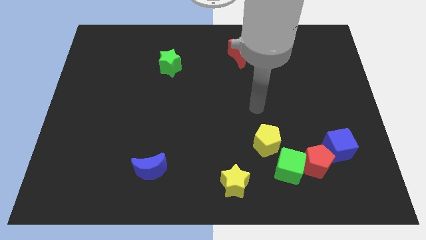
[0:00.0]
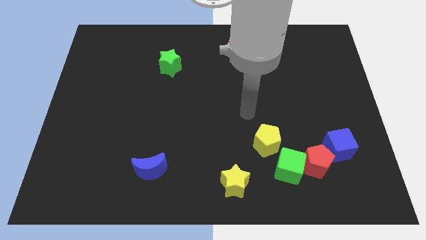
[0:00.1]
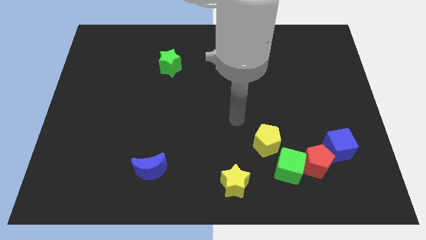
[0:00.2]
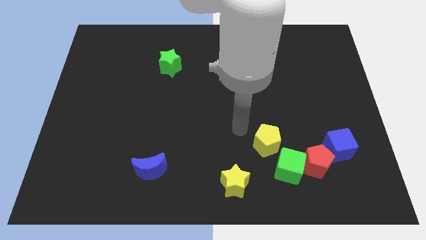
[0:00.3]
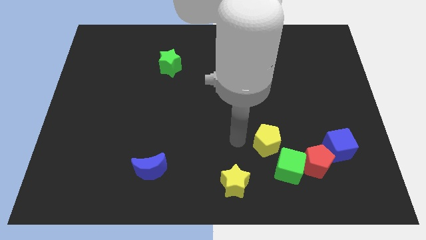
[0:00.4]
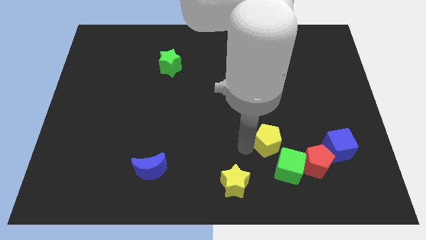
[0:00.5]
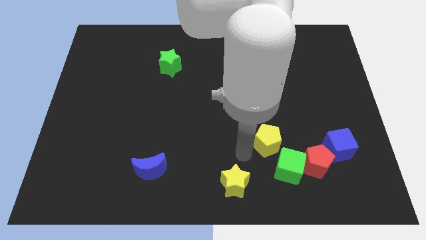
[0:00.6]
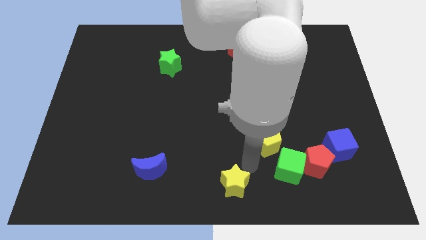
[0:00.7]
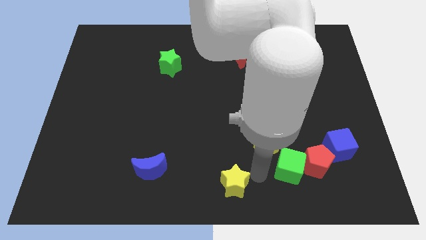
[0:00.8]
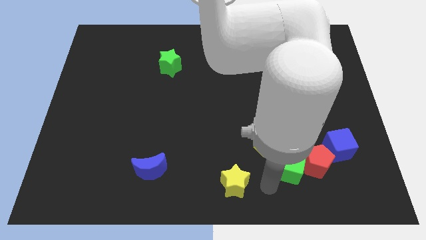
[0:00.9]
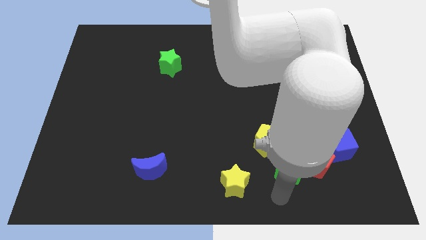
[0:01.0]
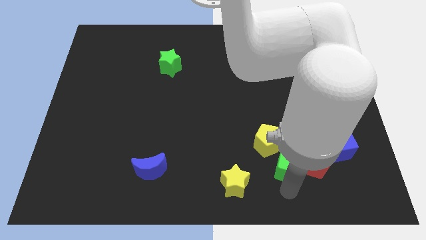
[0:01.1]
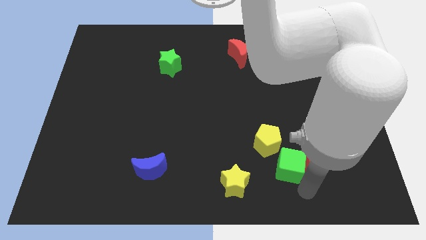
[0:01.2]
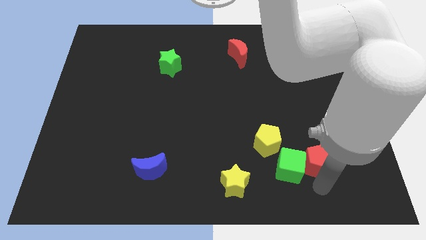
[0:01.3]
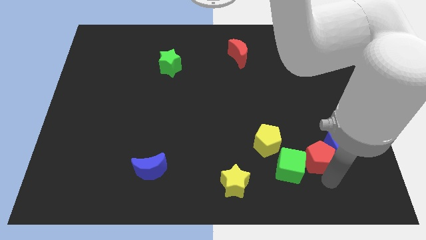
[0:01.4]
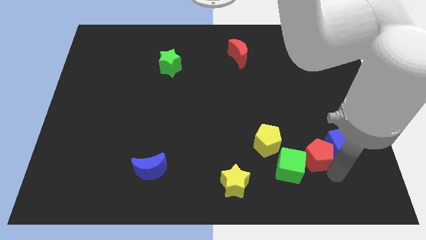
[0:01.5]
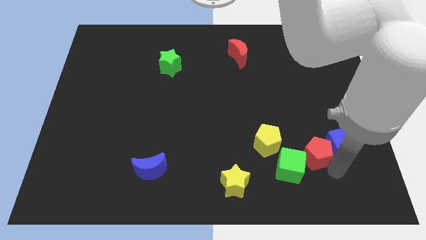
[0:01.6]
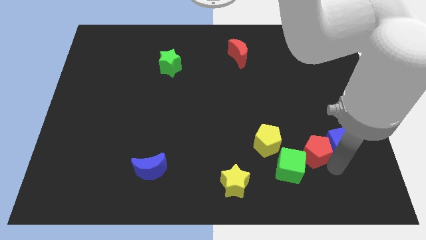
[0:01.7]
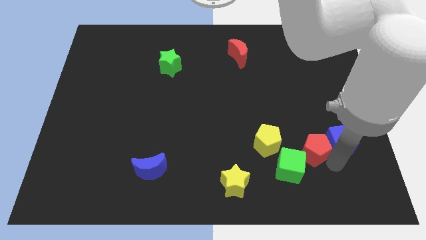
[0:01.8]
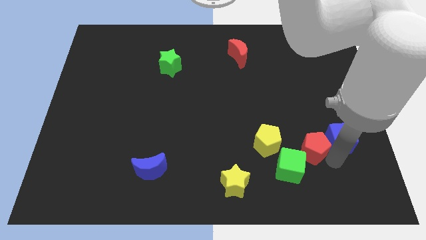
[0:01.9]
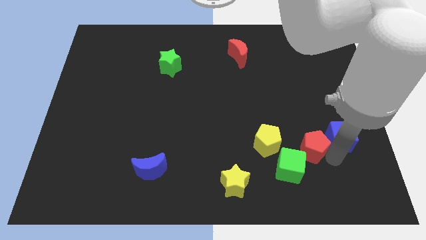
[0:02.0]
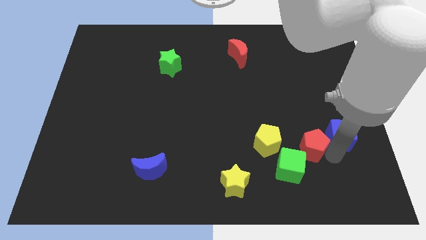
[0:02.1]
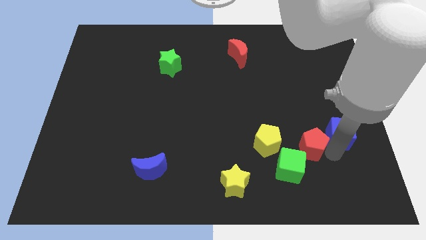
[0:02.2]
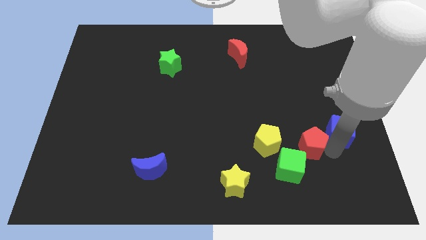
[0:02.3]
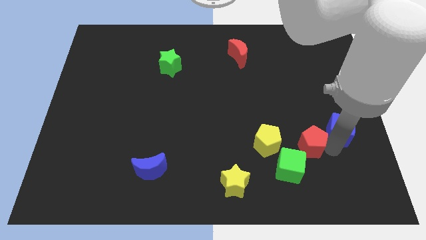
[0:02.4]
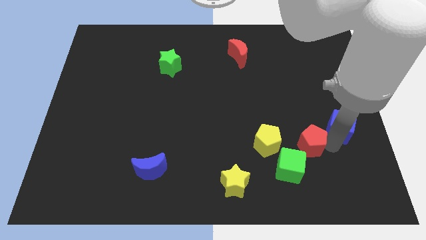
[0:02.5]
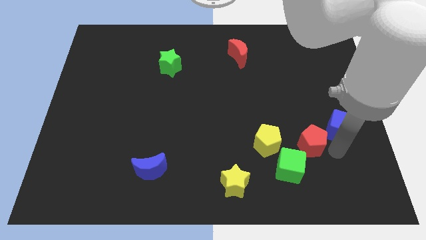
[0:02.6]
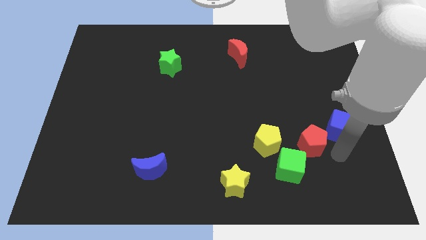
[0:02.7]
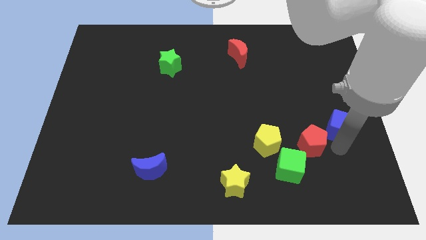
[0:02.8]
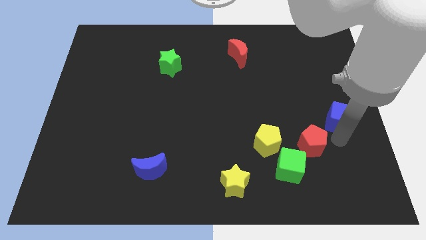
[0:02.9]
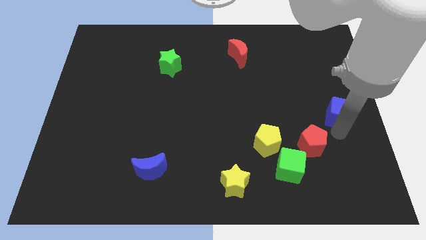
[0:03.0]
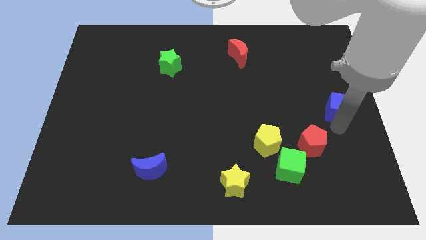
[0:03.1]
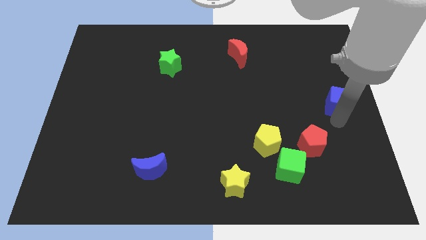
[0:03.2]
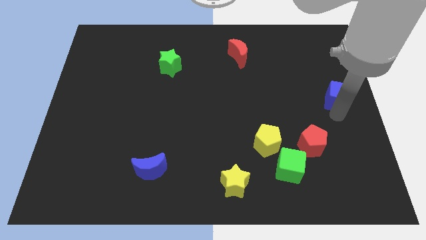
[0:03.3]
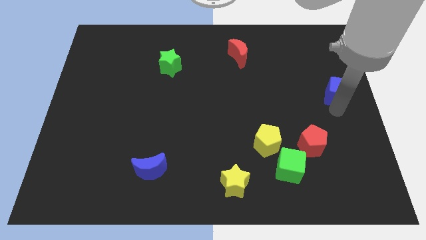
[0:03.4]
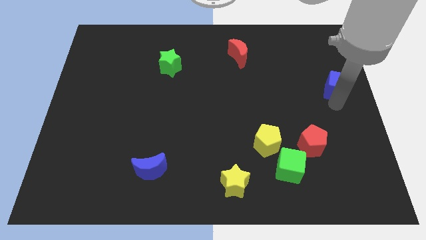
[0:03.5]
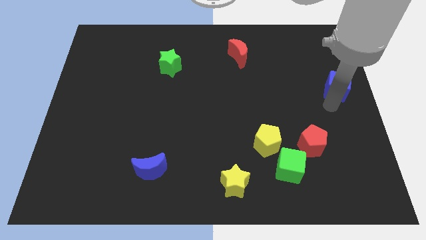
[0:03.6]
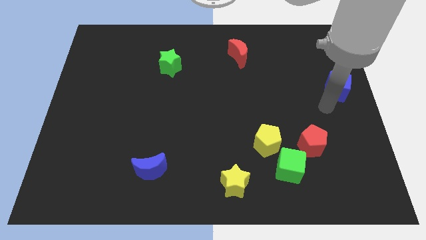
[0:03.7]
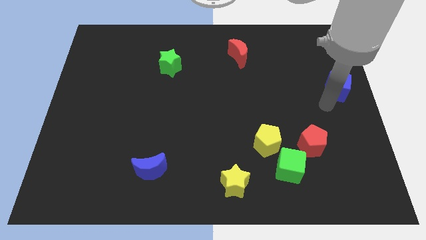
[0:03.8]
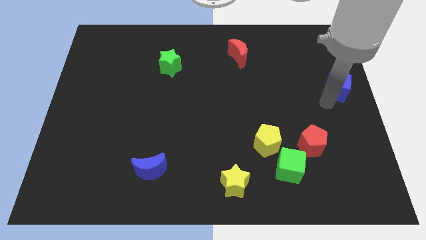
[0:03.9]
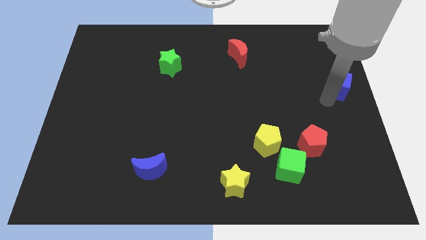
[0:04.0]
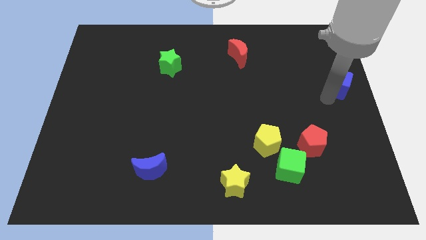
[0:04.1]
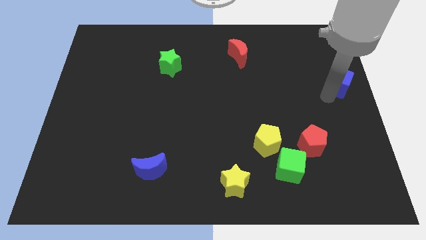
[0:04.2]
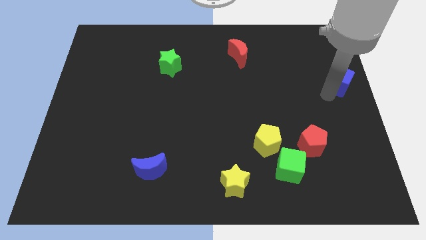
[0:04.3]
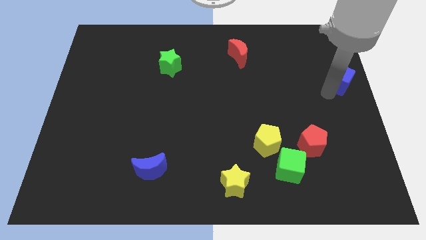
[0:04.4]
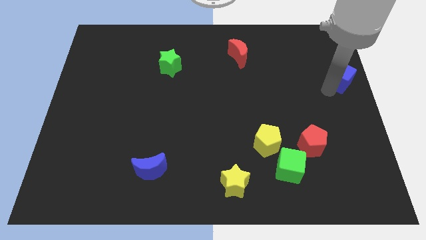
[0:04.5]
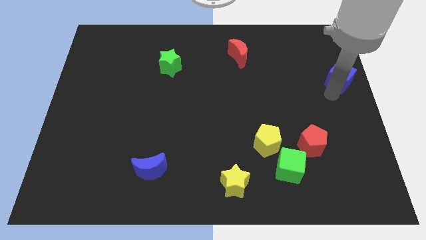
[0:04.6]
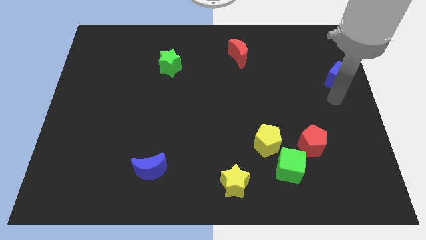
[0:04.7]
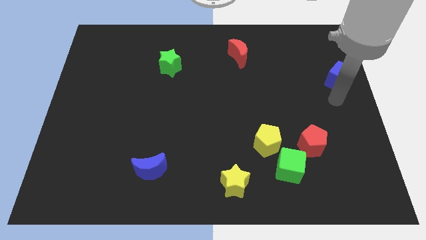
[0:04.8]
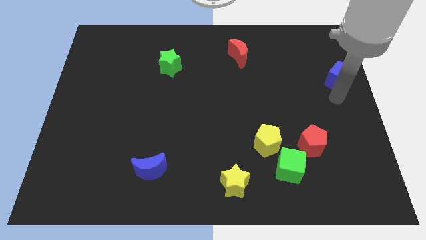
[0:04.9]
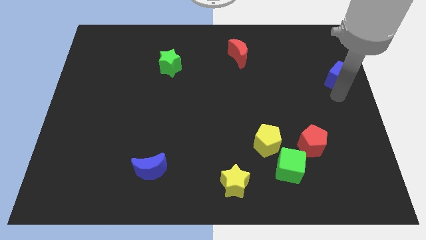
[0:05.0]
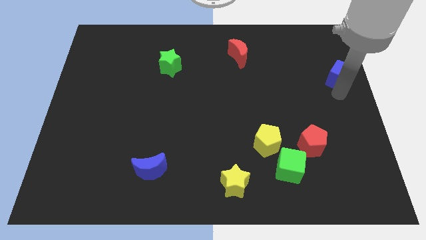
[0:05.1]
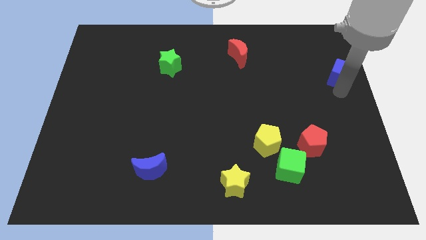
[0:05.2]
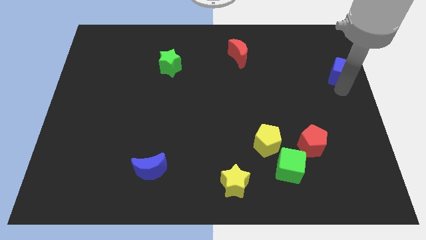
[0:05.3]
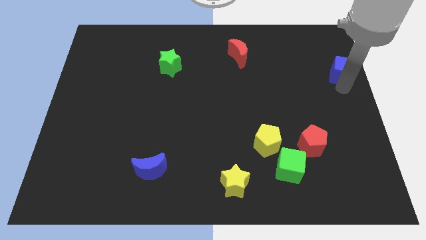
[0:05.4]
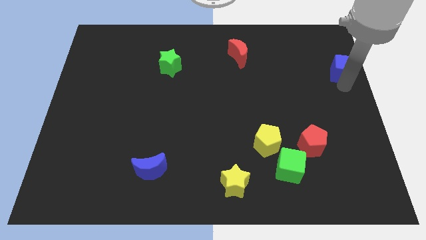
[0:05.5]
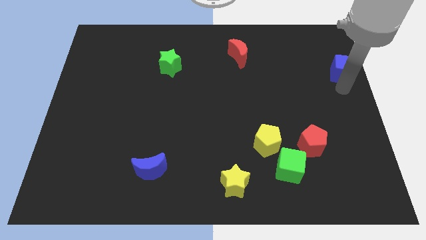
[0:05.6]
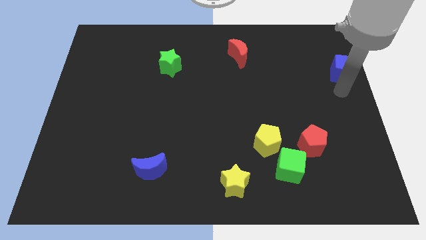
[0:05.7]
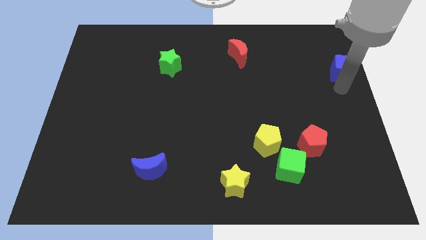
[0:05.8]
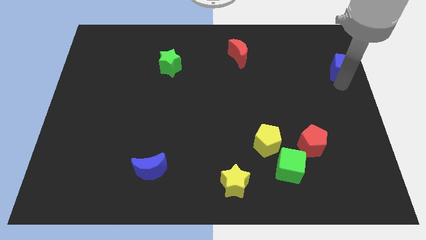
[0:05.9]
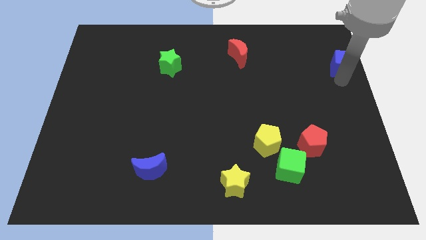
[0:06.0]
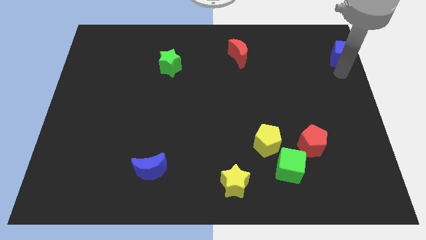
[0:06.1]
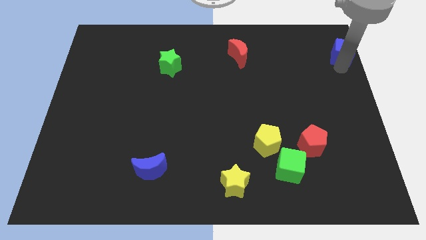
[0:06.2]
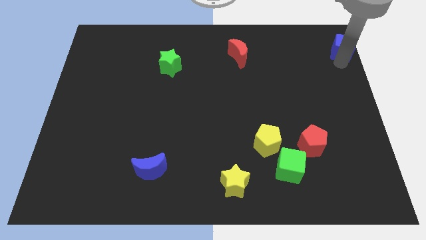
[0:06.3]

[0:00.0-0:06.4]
push the blue cube to the upper right corner
